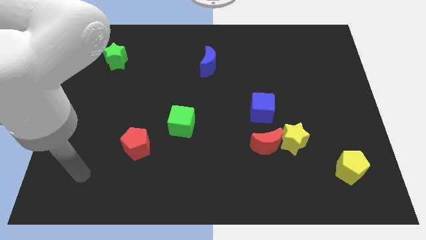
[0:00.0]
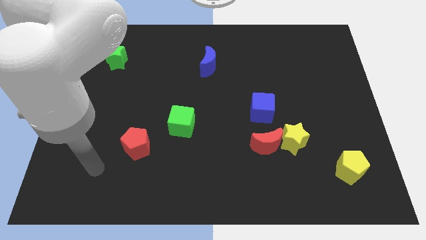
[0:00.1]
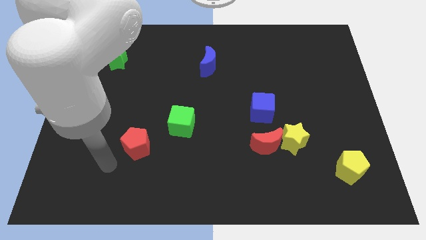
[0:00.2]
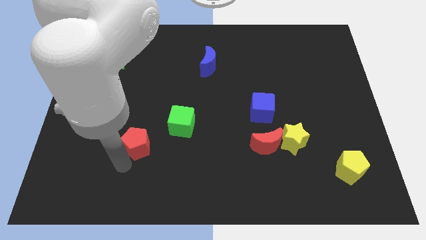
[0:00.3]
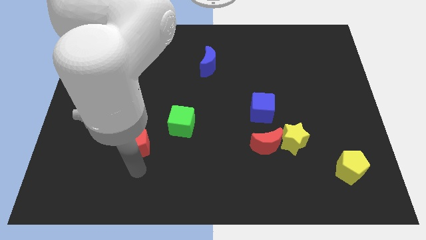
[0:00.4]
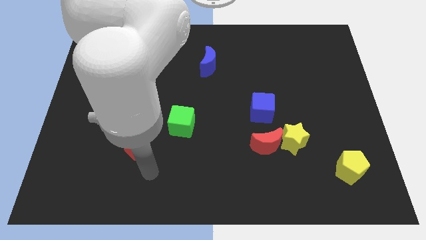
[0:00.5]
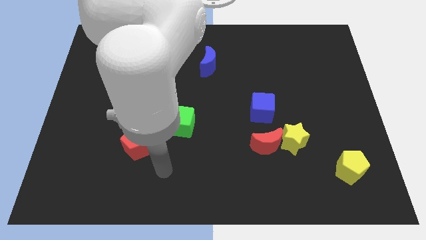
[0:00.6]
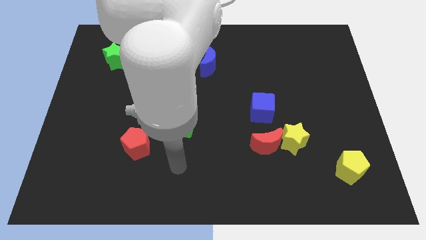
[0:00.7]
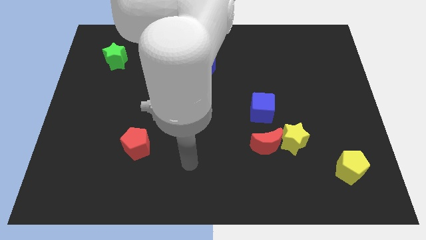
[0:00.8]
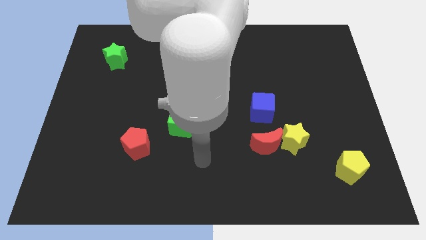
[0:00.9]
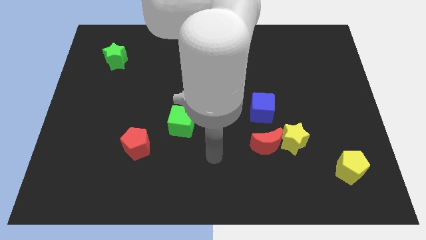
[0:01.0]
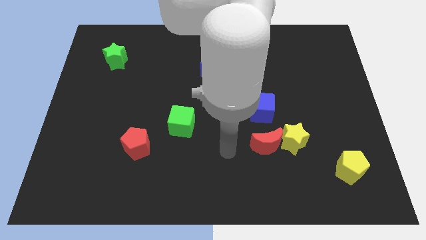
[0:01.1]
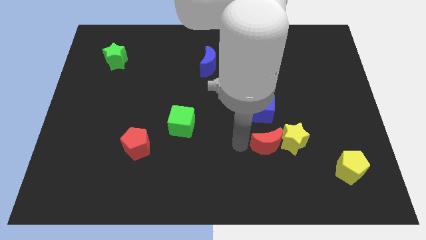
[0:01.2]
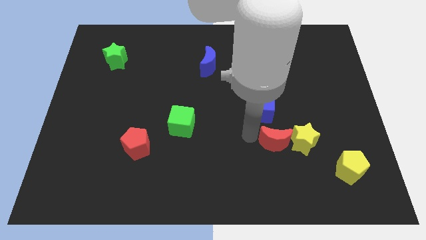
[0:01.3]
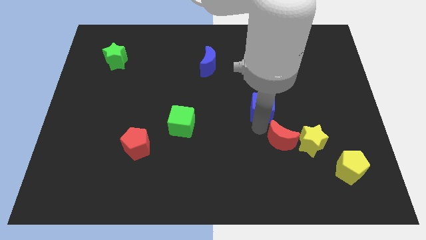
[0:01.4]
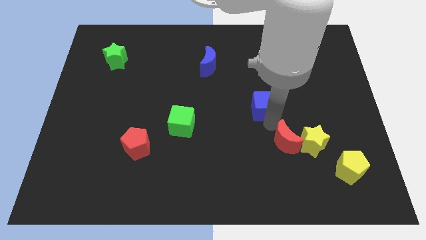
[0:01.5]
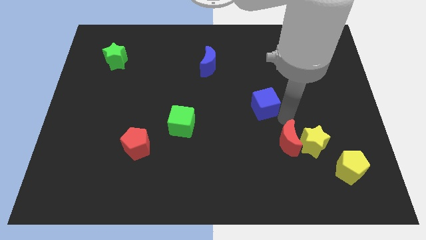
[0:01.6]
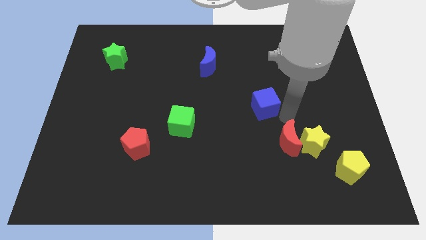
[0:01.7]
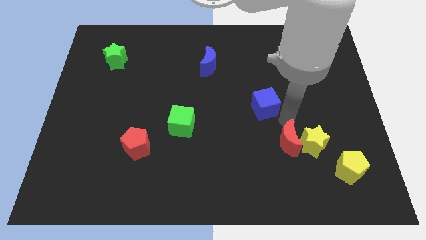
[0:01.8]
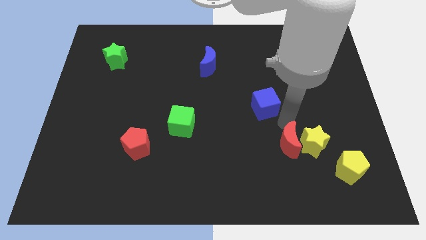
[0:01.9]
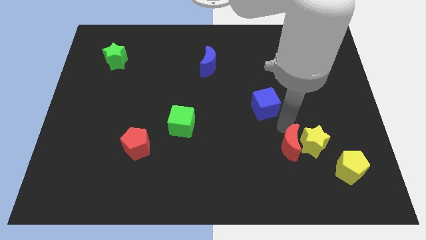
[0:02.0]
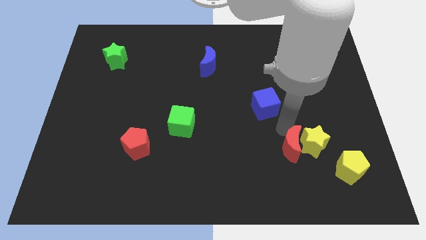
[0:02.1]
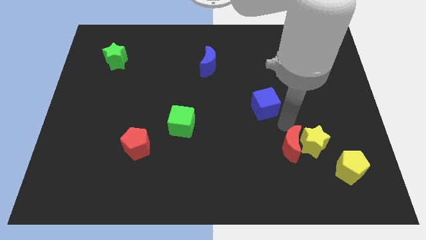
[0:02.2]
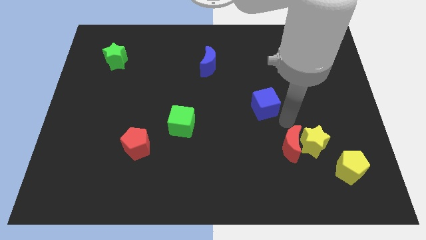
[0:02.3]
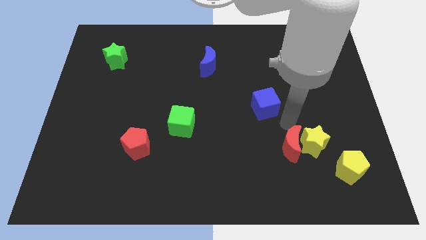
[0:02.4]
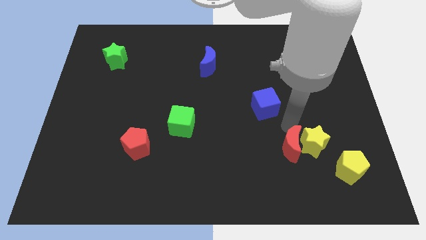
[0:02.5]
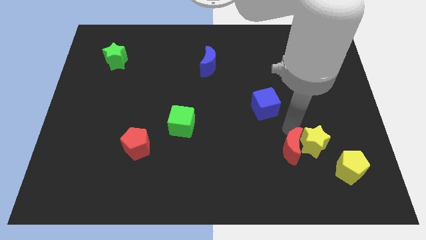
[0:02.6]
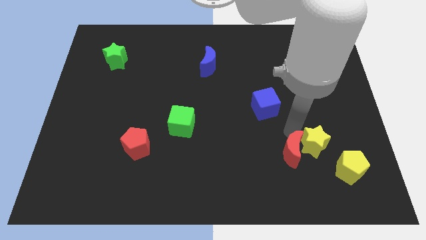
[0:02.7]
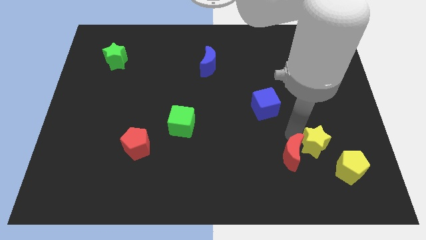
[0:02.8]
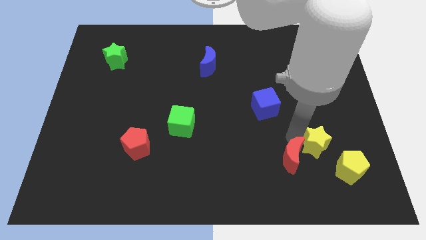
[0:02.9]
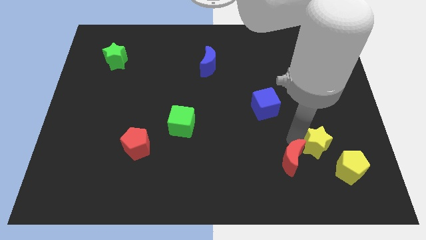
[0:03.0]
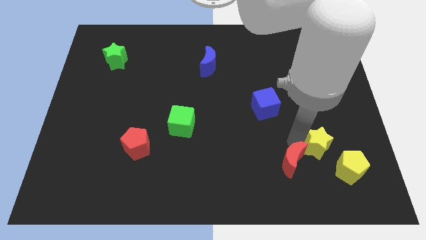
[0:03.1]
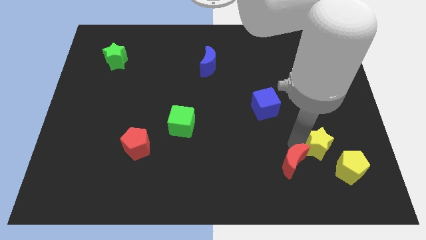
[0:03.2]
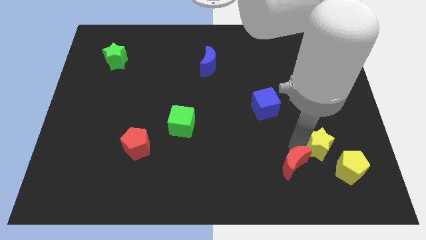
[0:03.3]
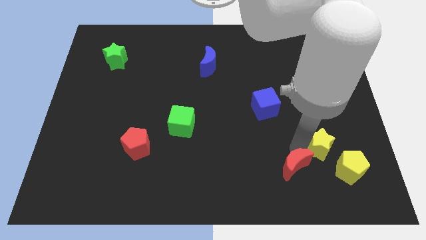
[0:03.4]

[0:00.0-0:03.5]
pull the red moon apart from the yellow star and blue cube

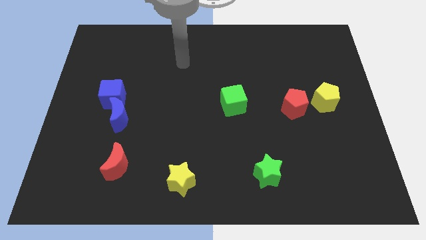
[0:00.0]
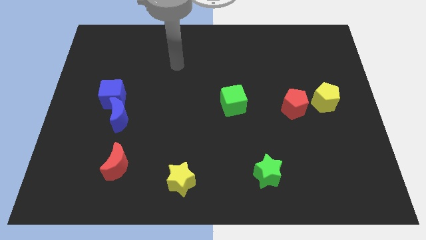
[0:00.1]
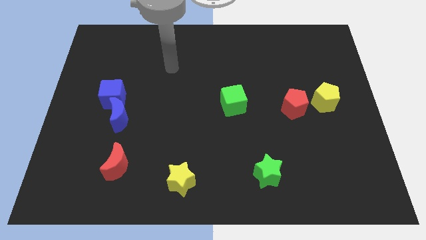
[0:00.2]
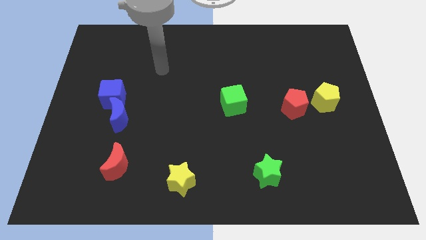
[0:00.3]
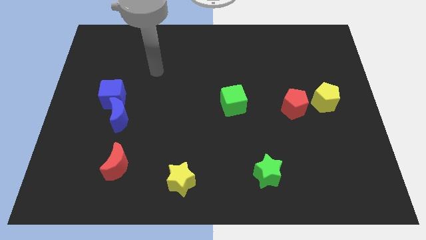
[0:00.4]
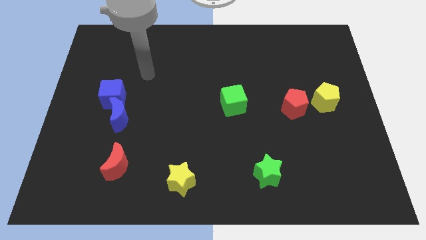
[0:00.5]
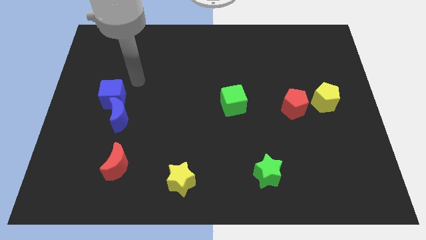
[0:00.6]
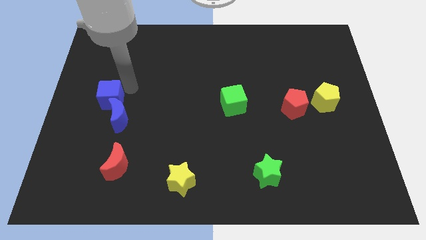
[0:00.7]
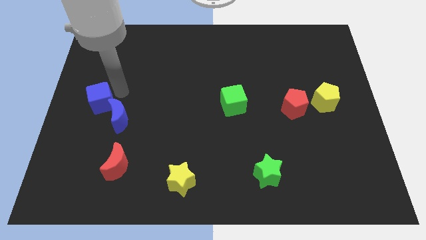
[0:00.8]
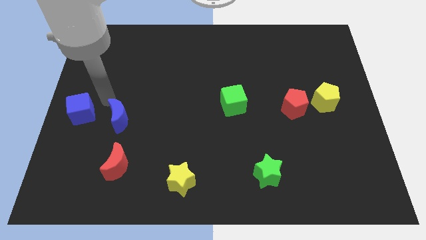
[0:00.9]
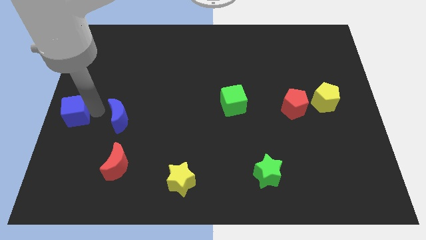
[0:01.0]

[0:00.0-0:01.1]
move the blue moon away from the blue cube

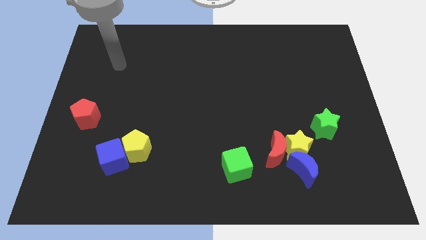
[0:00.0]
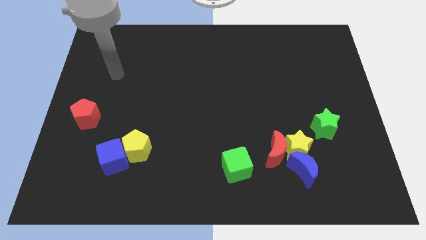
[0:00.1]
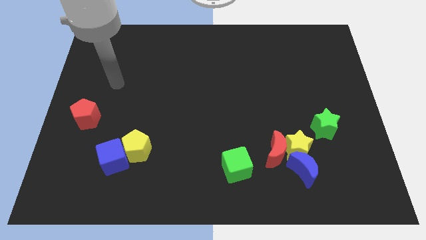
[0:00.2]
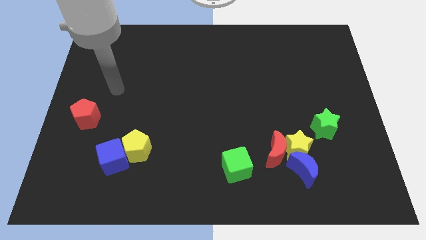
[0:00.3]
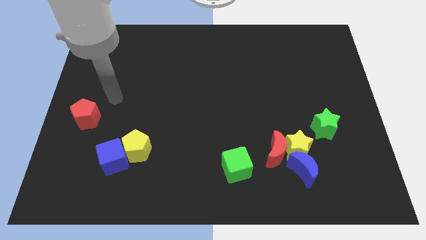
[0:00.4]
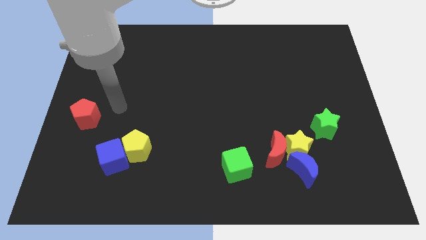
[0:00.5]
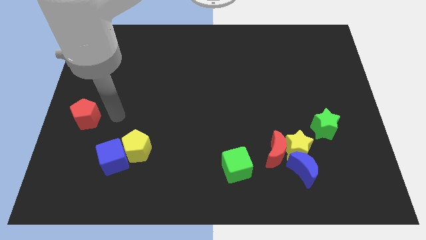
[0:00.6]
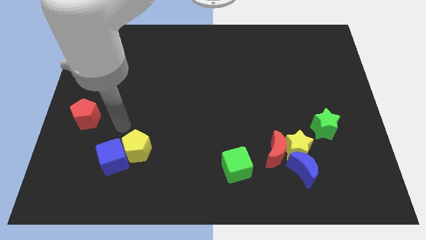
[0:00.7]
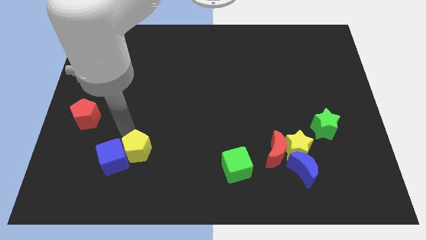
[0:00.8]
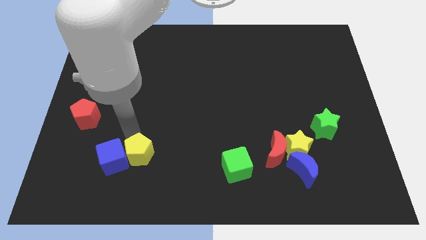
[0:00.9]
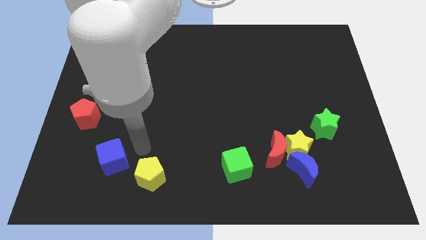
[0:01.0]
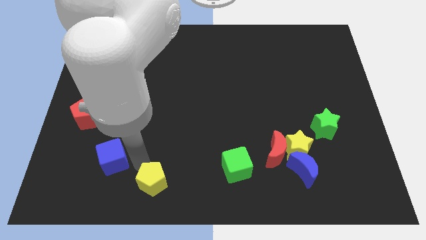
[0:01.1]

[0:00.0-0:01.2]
move the blue cube away from the yellow pentagon

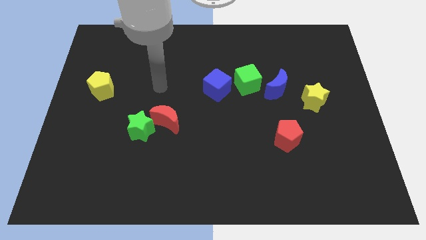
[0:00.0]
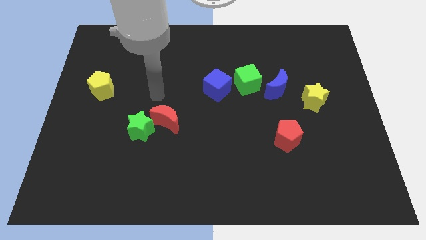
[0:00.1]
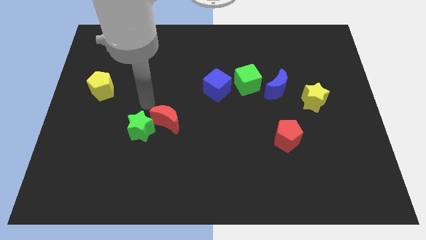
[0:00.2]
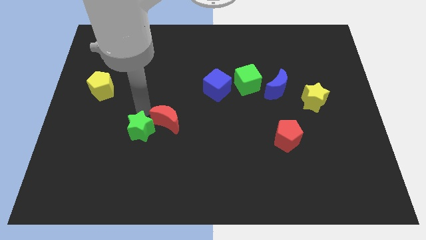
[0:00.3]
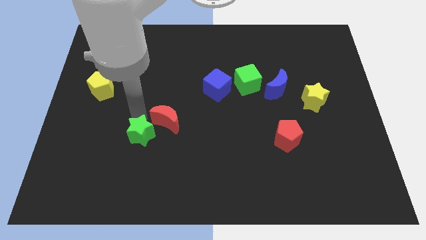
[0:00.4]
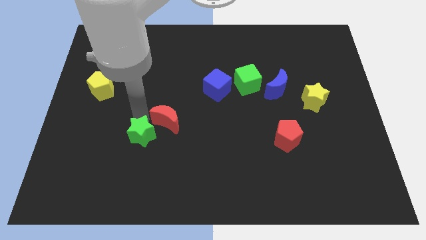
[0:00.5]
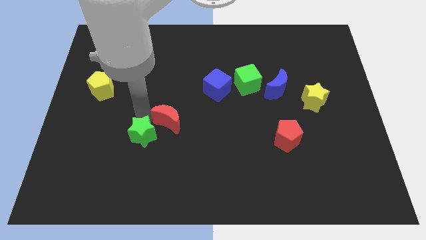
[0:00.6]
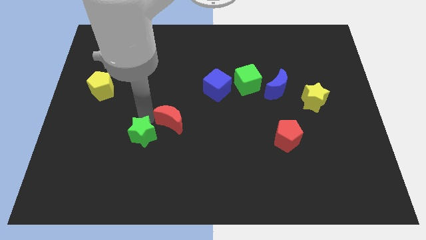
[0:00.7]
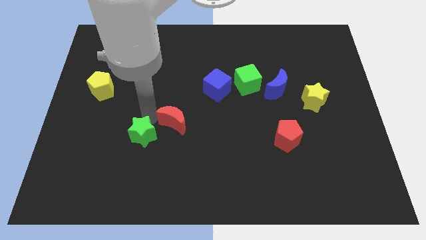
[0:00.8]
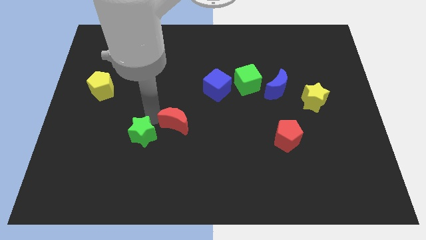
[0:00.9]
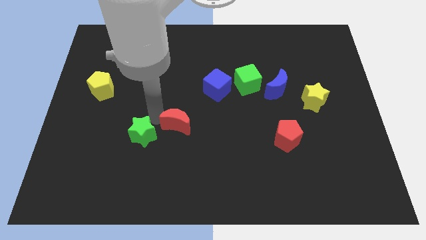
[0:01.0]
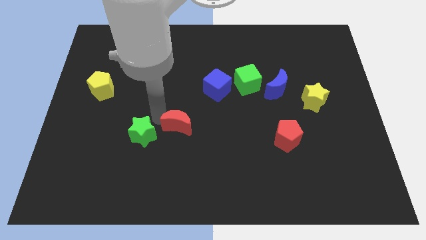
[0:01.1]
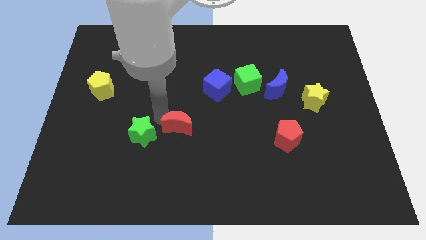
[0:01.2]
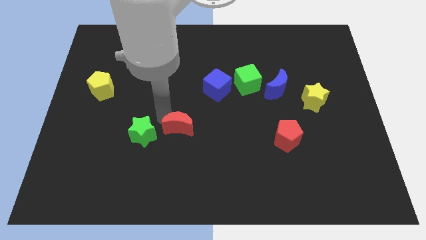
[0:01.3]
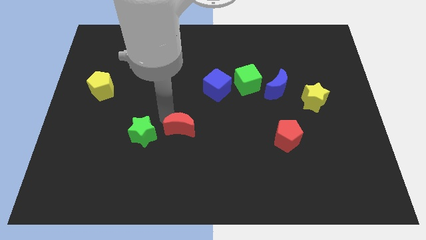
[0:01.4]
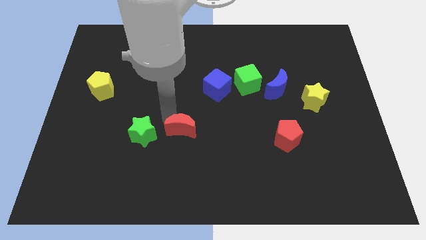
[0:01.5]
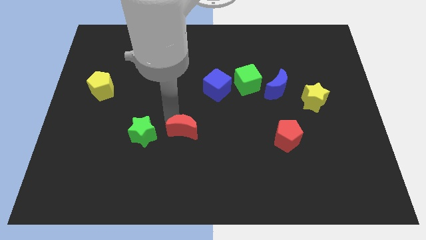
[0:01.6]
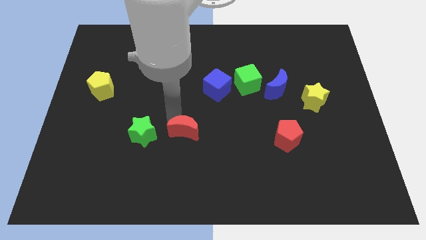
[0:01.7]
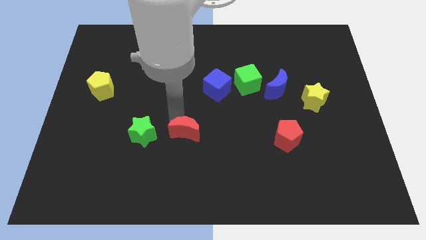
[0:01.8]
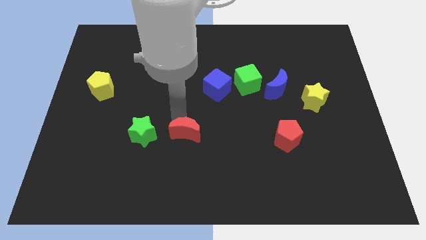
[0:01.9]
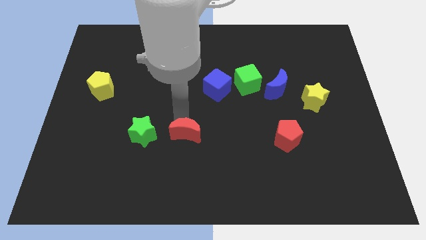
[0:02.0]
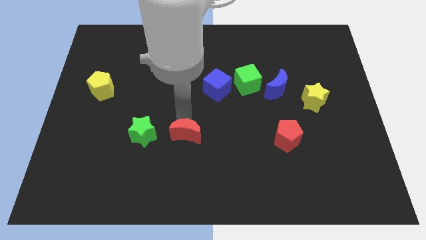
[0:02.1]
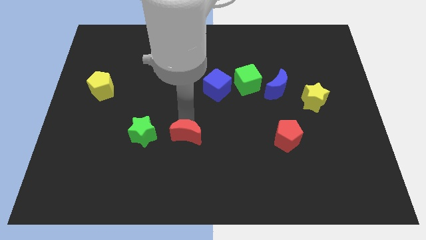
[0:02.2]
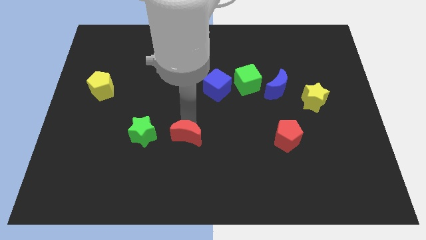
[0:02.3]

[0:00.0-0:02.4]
separate the red moon from the green star

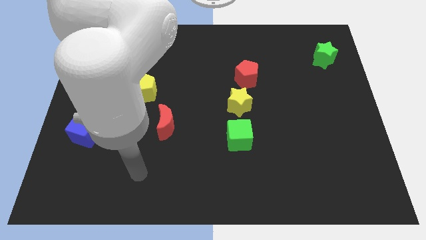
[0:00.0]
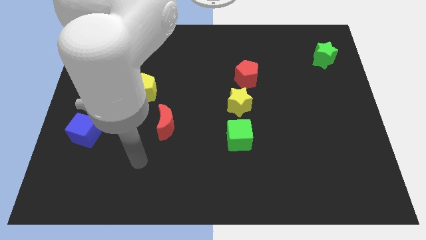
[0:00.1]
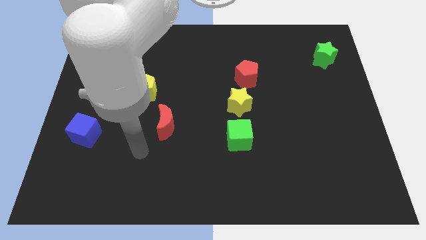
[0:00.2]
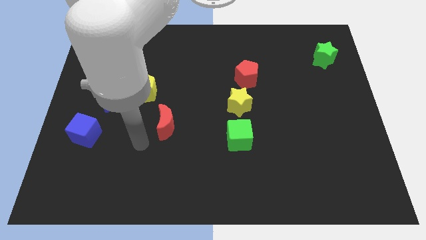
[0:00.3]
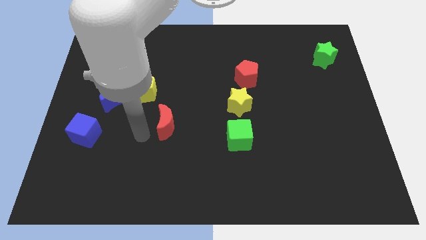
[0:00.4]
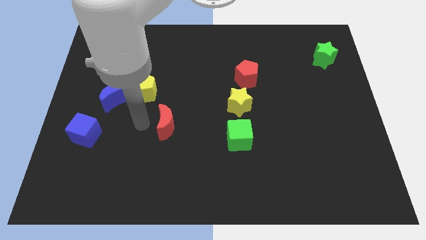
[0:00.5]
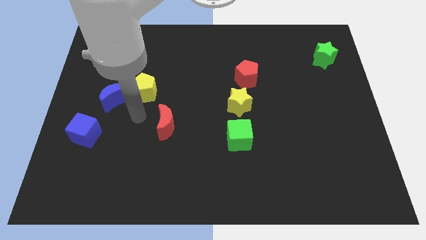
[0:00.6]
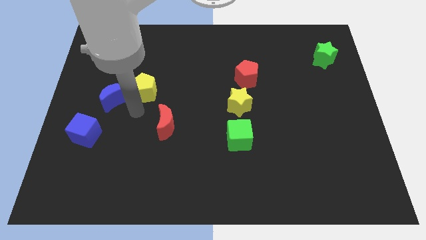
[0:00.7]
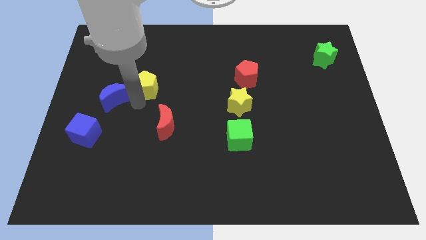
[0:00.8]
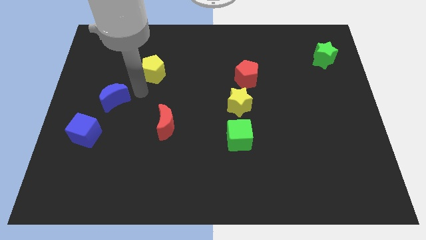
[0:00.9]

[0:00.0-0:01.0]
pull the blue moon apart from the yellow pentagon
